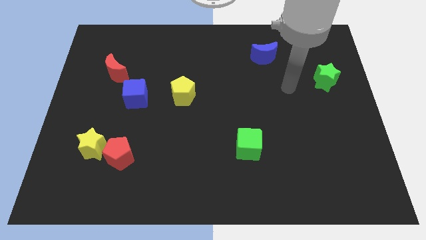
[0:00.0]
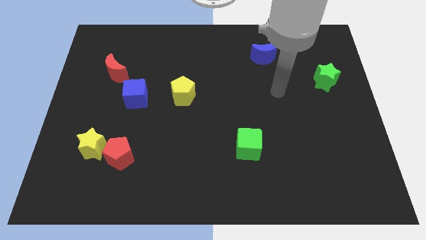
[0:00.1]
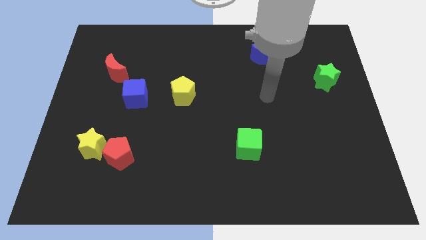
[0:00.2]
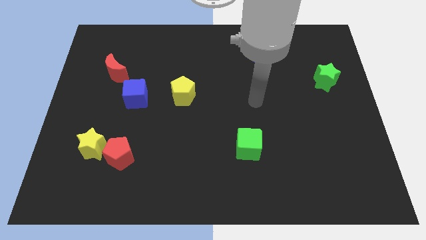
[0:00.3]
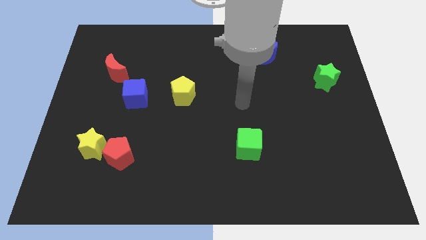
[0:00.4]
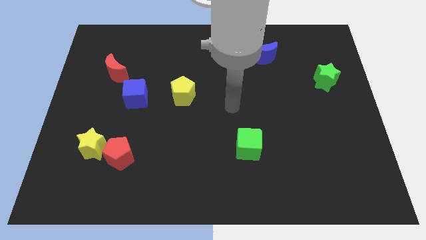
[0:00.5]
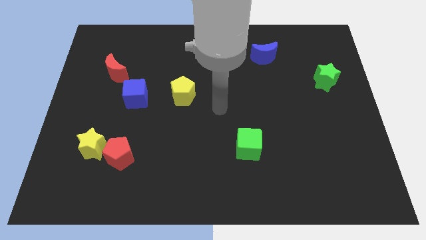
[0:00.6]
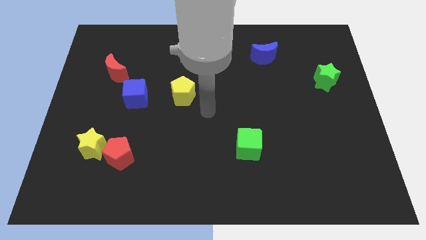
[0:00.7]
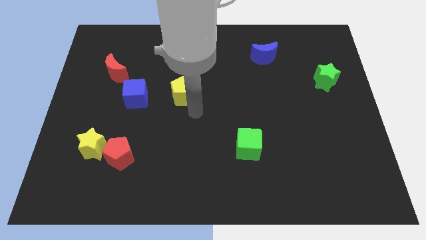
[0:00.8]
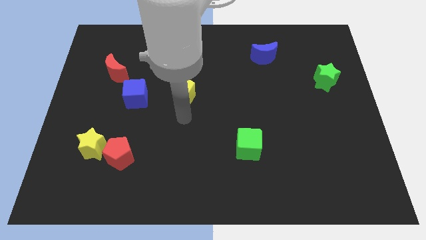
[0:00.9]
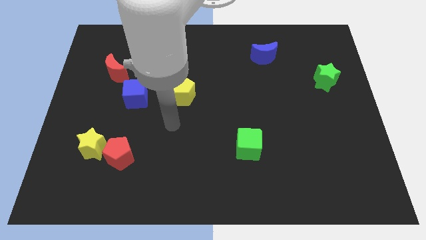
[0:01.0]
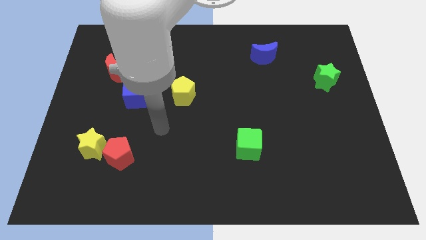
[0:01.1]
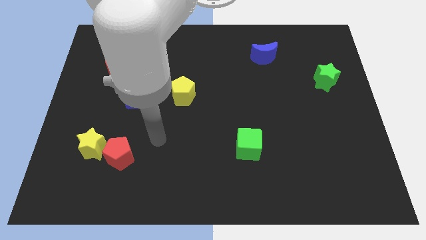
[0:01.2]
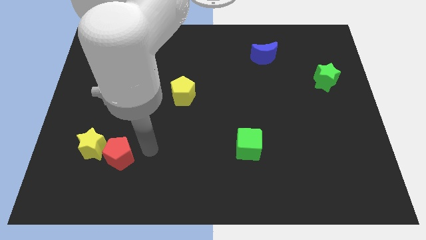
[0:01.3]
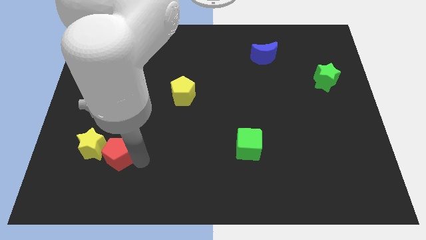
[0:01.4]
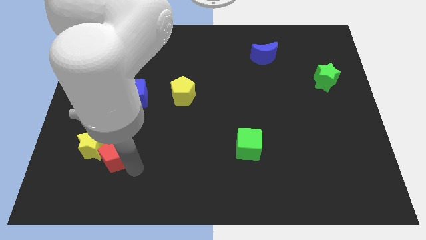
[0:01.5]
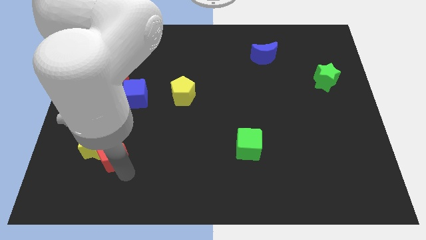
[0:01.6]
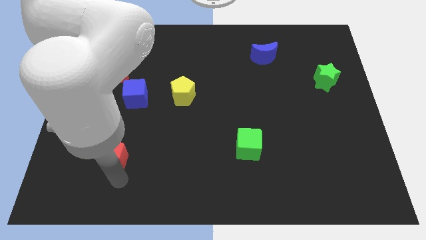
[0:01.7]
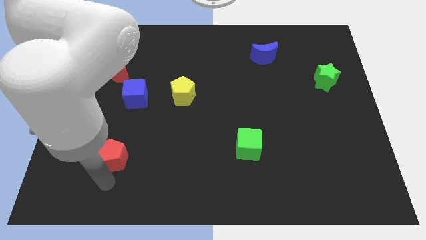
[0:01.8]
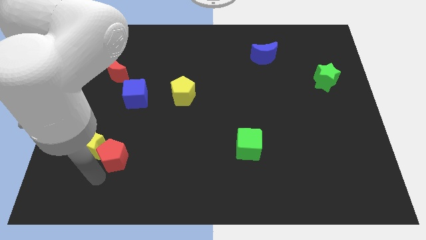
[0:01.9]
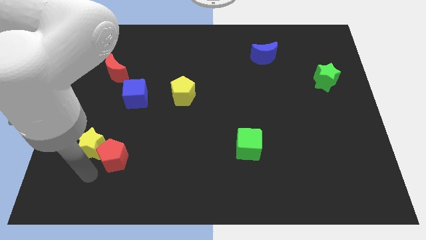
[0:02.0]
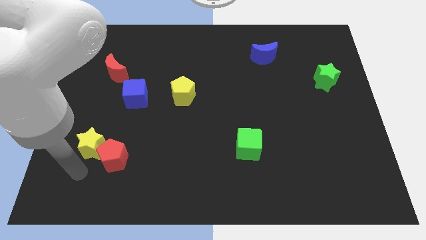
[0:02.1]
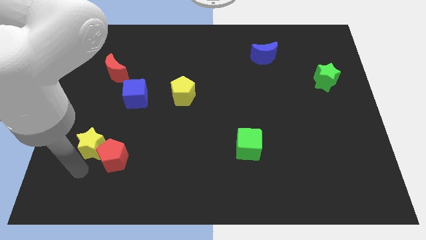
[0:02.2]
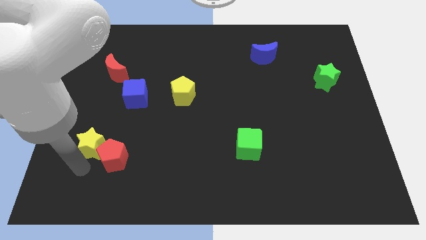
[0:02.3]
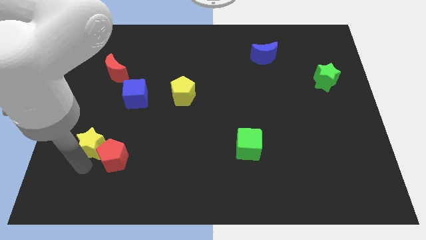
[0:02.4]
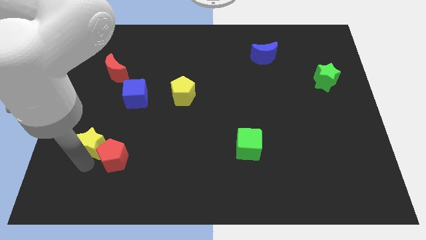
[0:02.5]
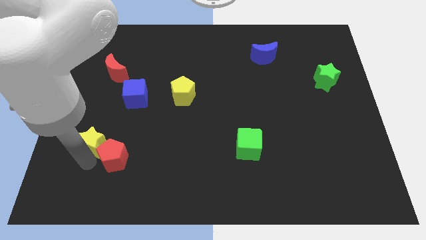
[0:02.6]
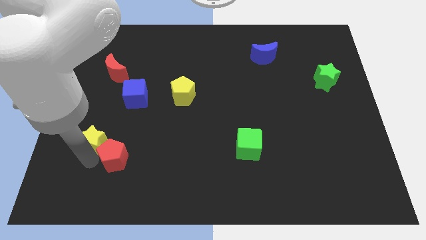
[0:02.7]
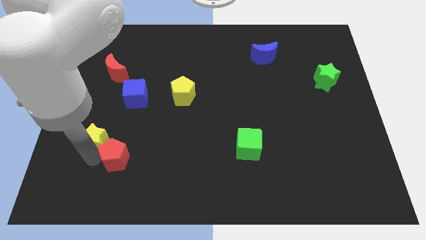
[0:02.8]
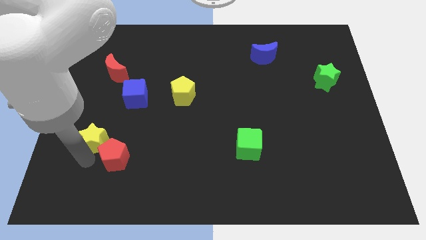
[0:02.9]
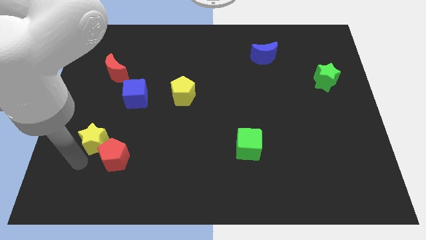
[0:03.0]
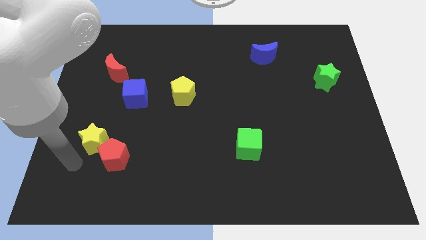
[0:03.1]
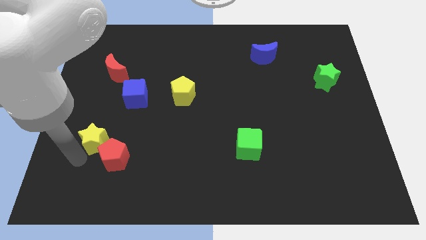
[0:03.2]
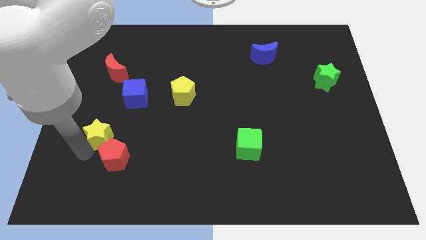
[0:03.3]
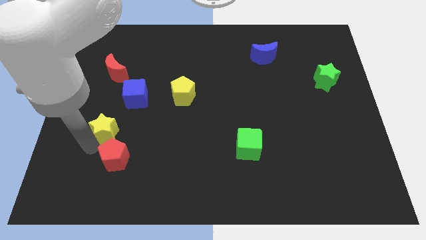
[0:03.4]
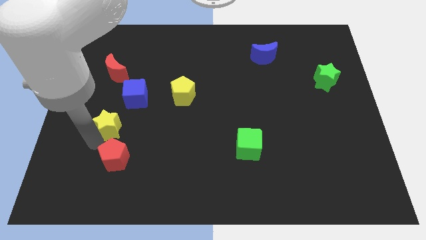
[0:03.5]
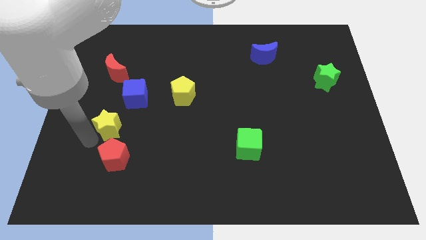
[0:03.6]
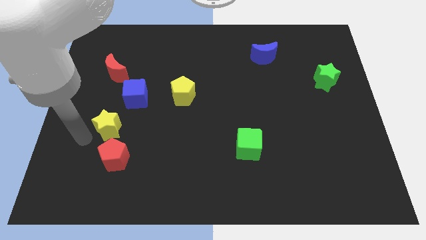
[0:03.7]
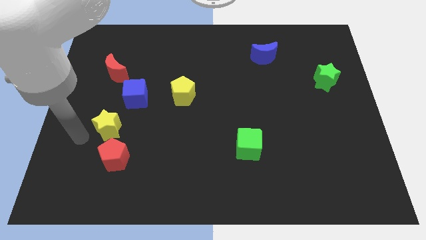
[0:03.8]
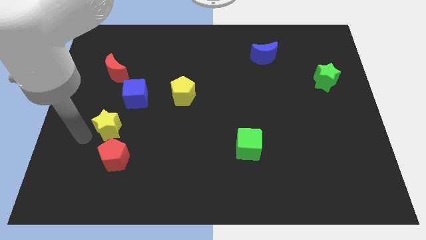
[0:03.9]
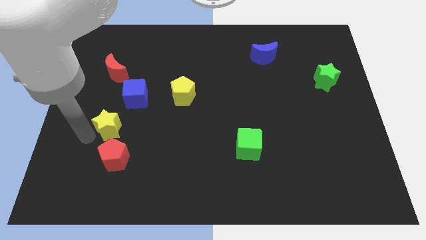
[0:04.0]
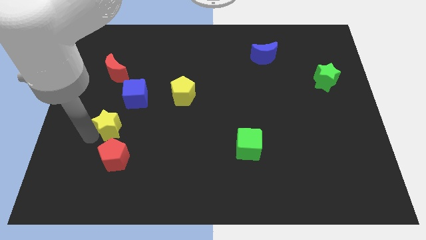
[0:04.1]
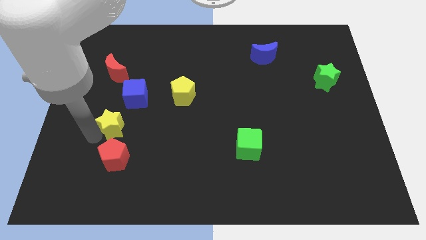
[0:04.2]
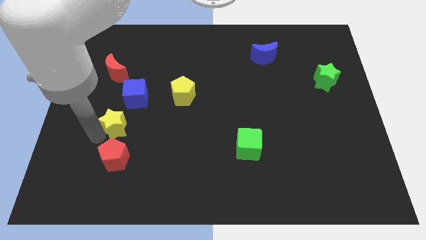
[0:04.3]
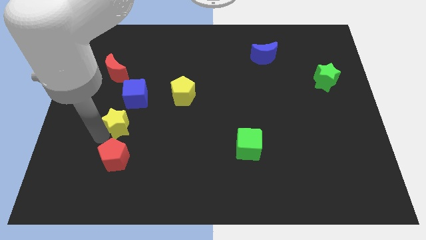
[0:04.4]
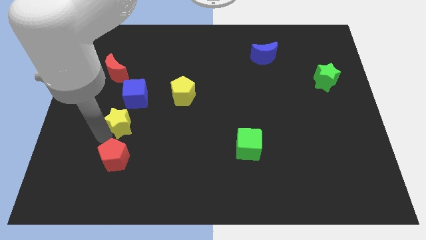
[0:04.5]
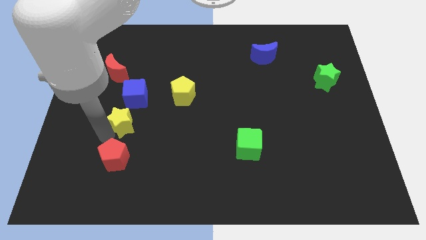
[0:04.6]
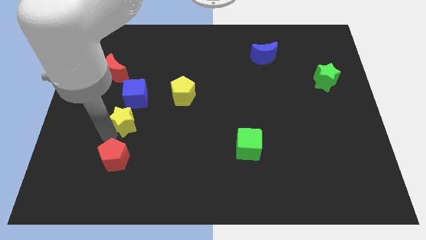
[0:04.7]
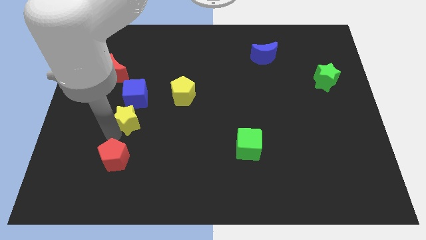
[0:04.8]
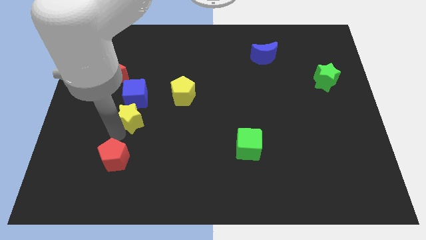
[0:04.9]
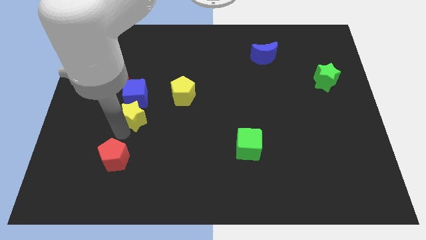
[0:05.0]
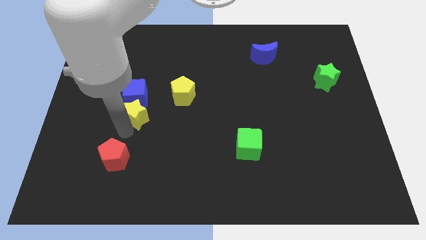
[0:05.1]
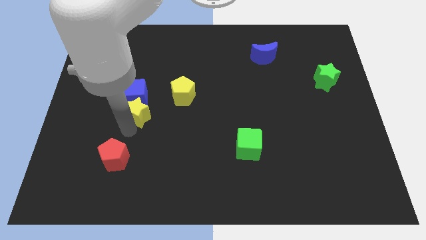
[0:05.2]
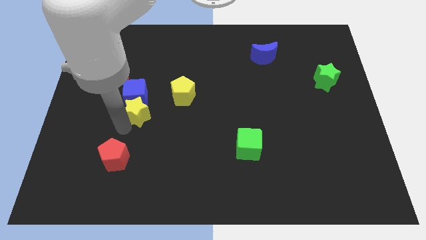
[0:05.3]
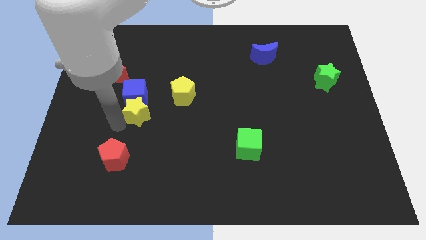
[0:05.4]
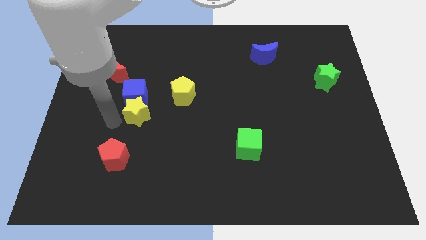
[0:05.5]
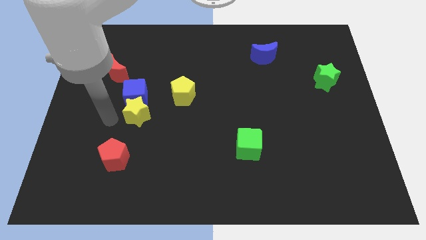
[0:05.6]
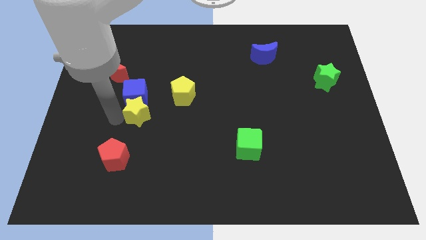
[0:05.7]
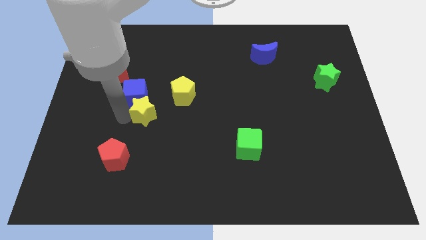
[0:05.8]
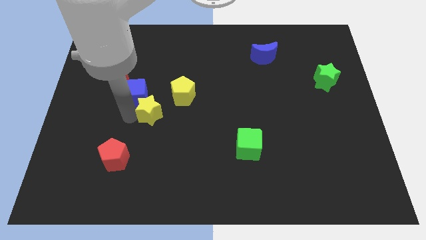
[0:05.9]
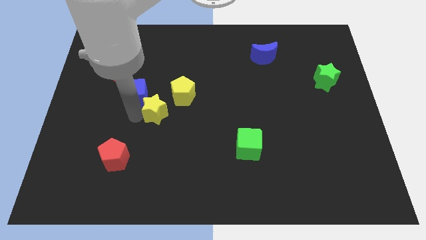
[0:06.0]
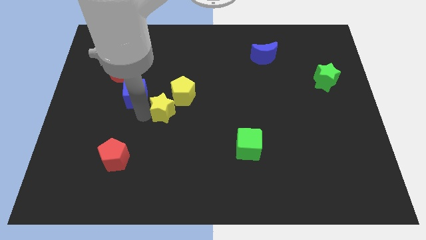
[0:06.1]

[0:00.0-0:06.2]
move the yellow star to the middle of the board
